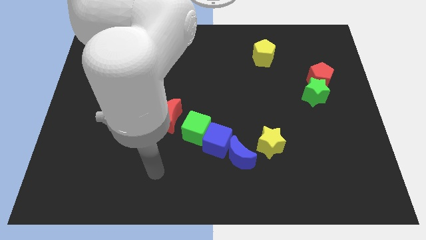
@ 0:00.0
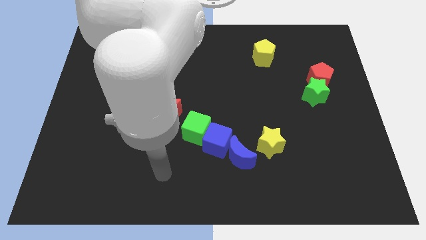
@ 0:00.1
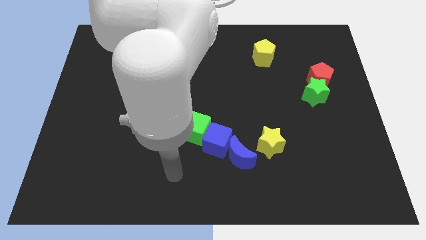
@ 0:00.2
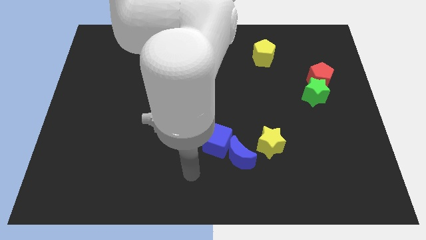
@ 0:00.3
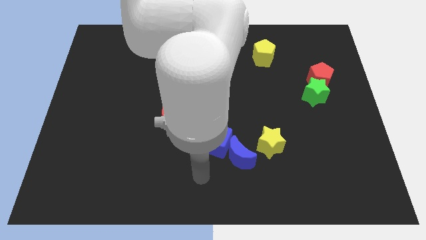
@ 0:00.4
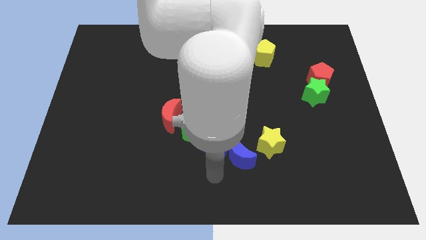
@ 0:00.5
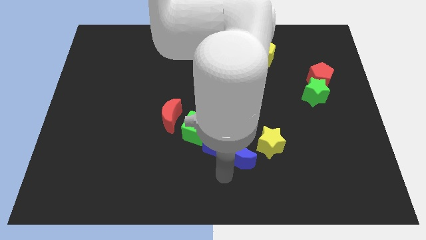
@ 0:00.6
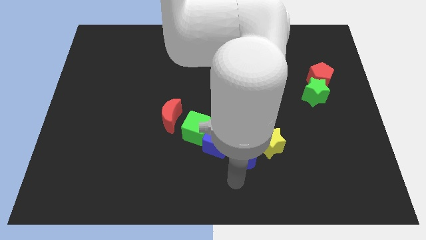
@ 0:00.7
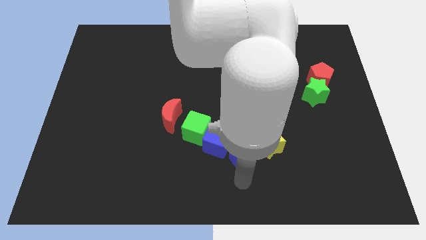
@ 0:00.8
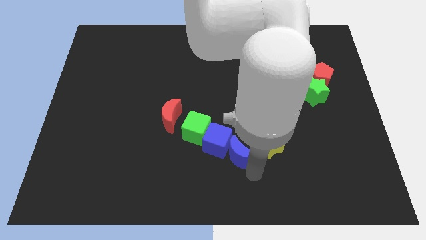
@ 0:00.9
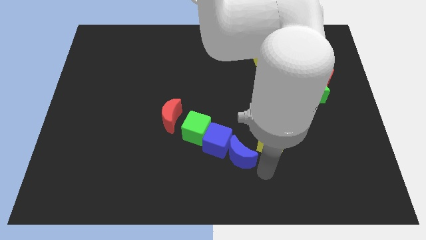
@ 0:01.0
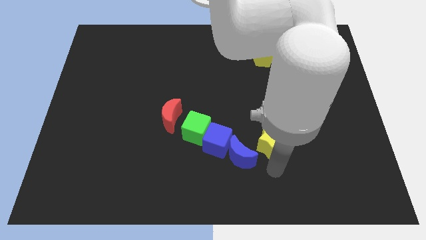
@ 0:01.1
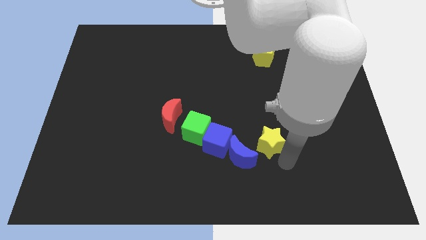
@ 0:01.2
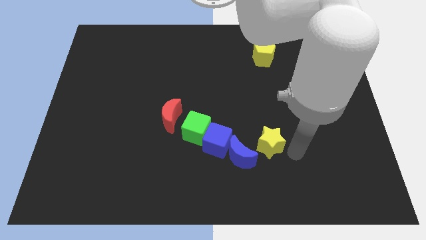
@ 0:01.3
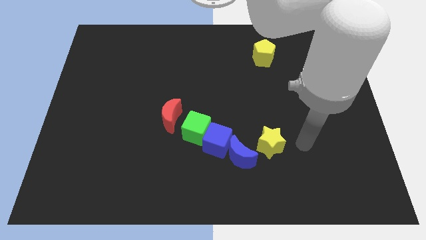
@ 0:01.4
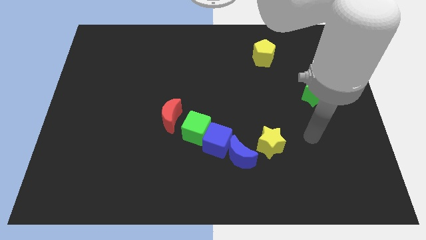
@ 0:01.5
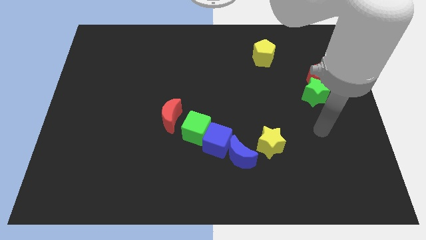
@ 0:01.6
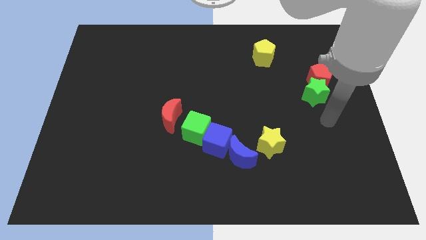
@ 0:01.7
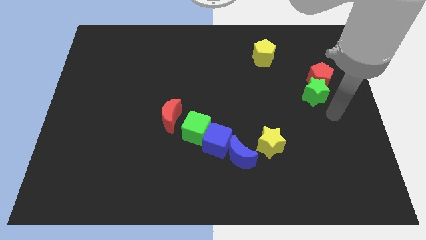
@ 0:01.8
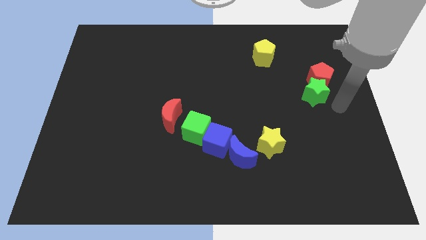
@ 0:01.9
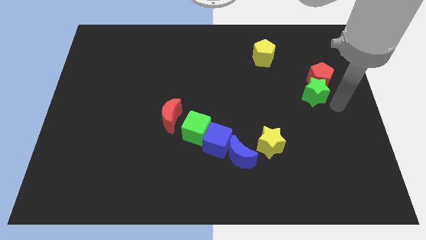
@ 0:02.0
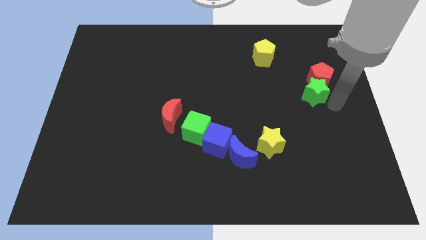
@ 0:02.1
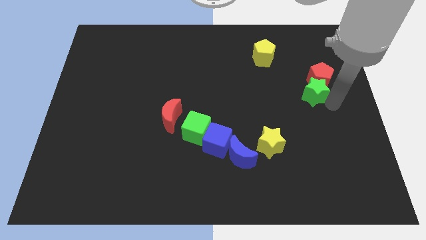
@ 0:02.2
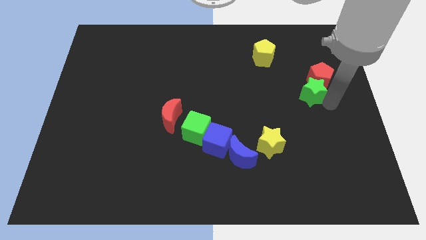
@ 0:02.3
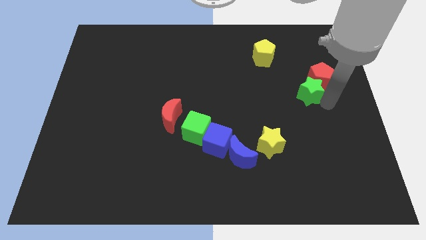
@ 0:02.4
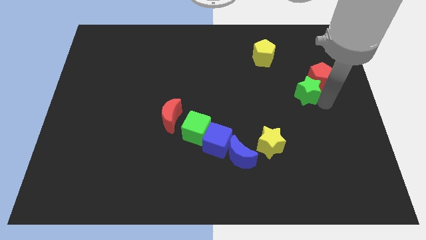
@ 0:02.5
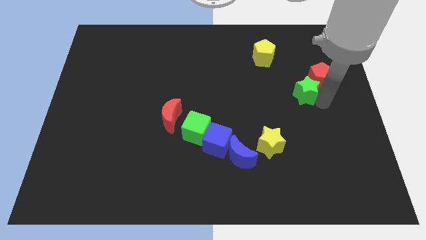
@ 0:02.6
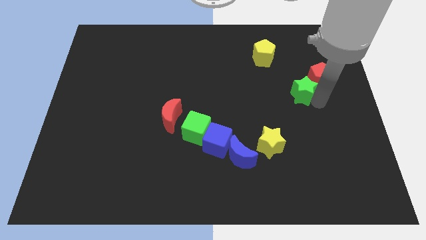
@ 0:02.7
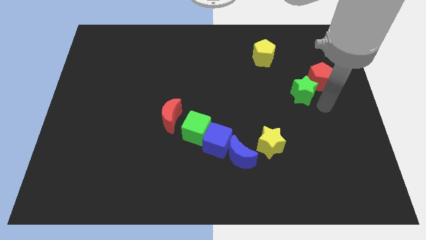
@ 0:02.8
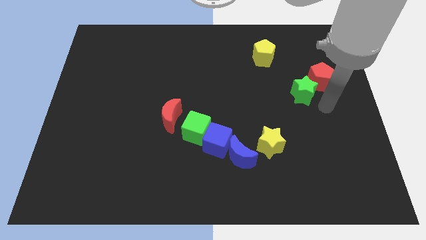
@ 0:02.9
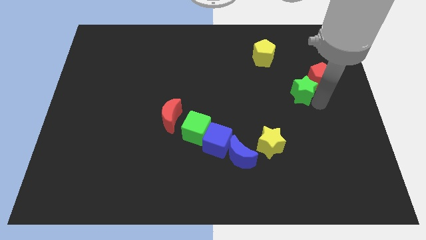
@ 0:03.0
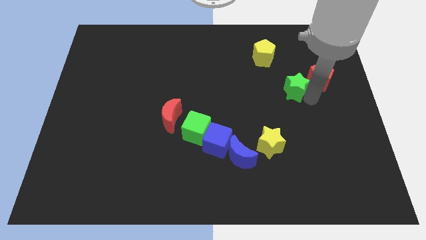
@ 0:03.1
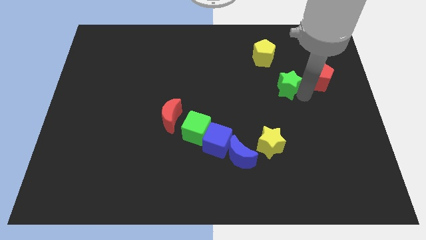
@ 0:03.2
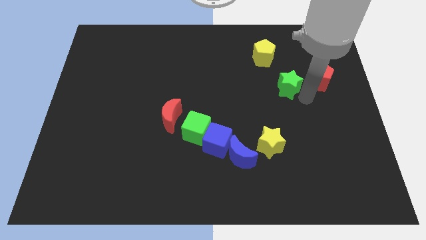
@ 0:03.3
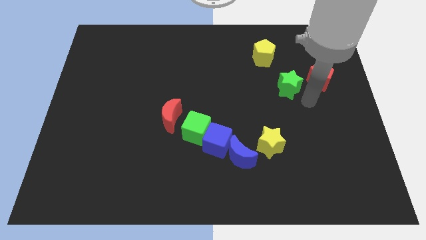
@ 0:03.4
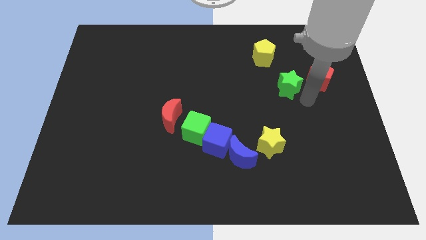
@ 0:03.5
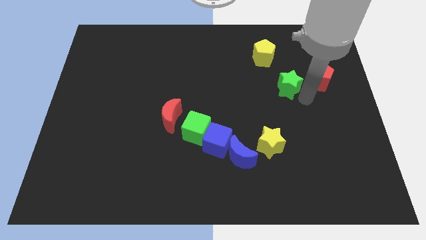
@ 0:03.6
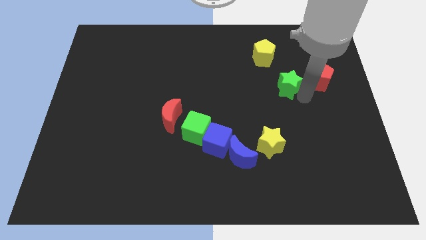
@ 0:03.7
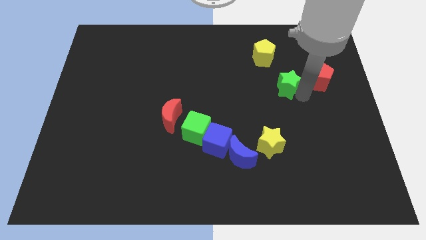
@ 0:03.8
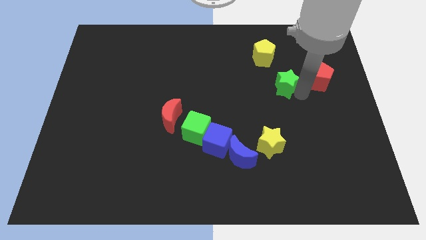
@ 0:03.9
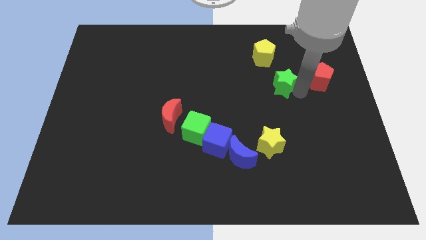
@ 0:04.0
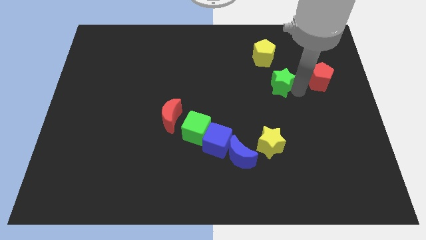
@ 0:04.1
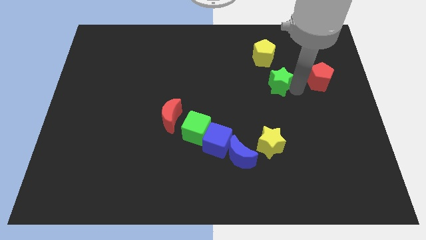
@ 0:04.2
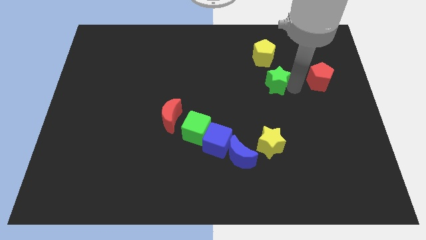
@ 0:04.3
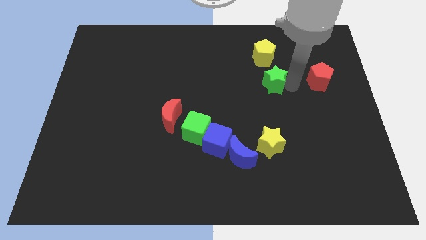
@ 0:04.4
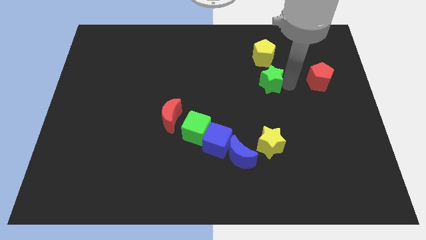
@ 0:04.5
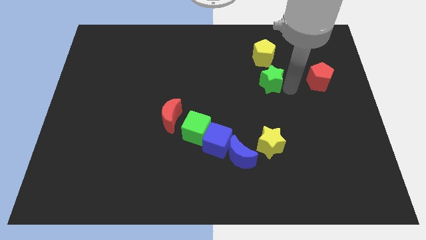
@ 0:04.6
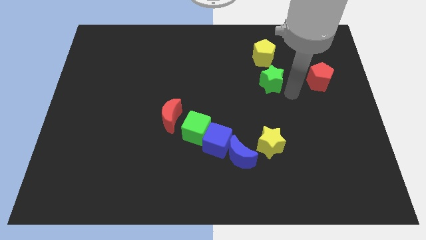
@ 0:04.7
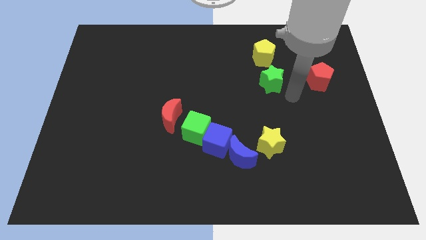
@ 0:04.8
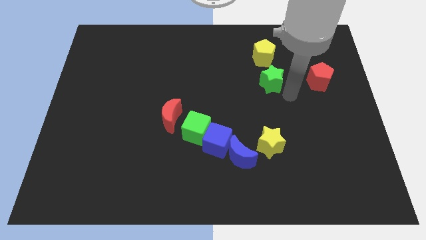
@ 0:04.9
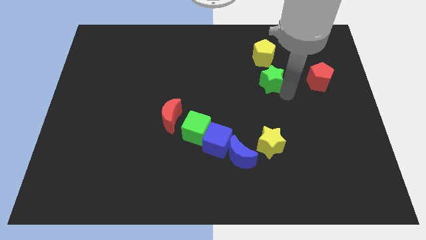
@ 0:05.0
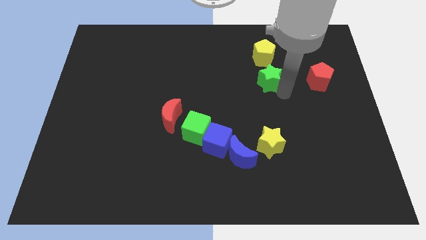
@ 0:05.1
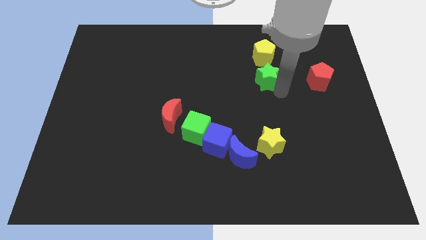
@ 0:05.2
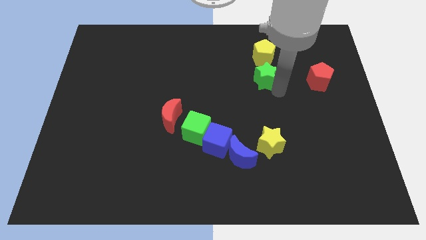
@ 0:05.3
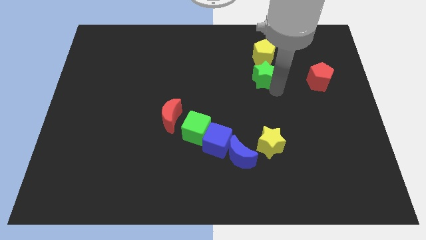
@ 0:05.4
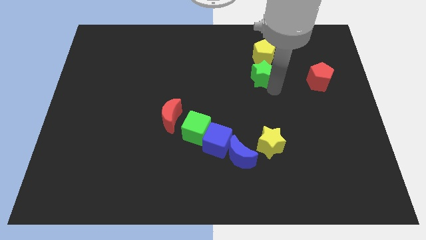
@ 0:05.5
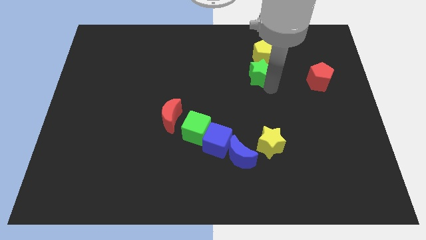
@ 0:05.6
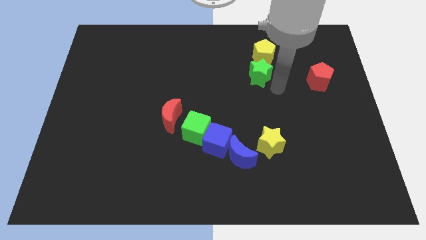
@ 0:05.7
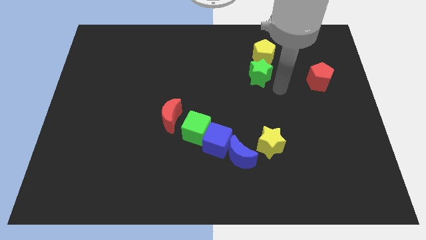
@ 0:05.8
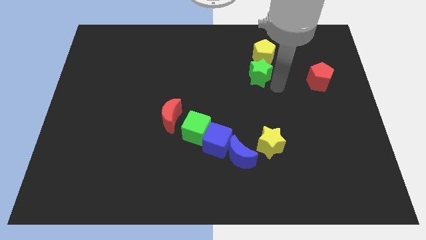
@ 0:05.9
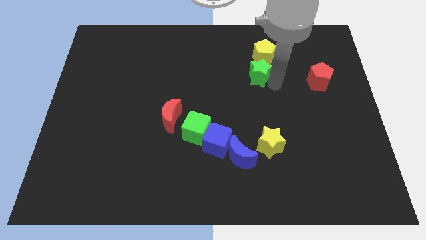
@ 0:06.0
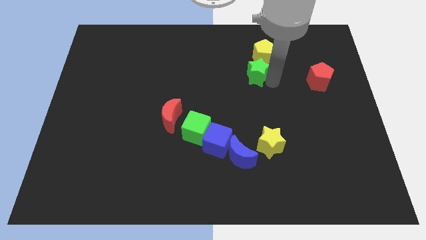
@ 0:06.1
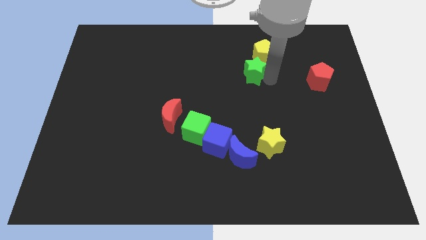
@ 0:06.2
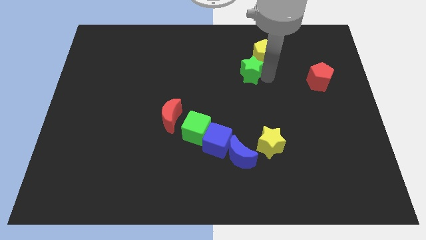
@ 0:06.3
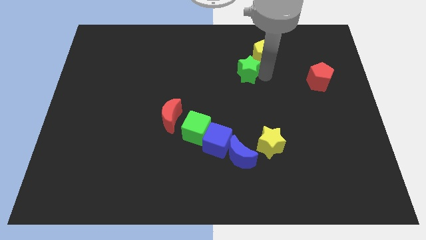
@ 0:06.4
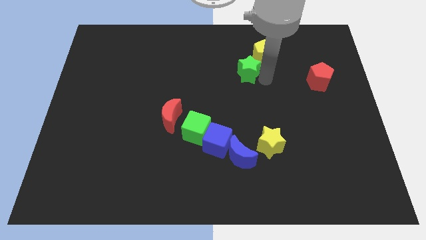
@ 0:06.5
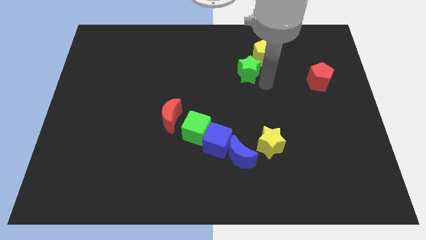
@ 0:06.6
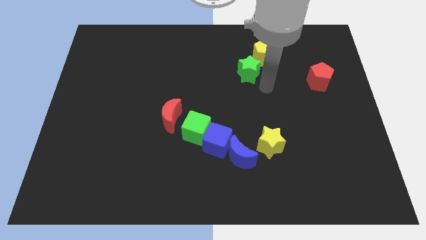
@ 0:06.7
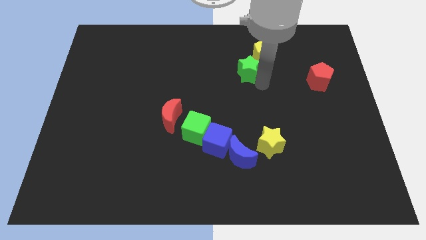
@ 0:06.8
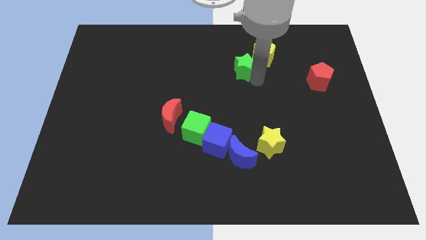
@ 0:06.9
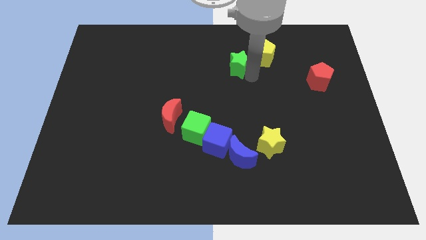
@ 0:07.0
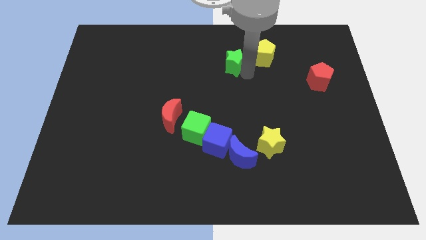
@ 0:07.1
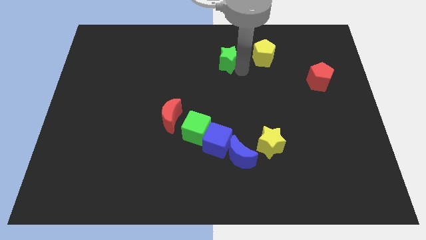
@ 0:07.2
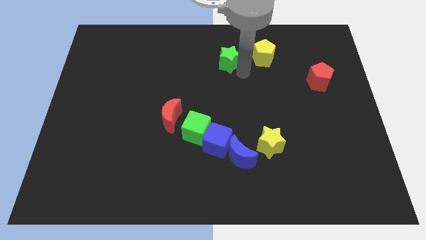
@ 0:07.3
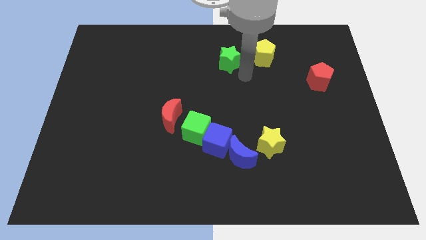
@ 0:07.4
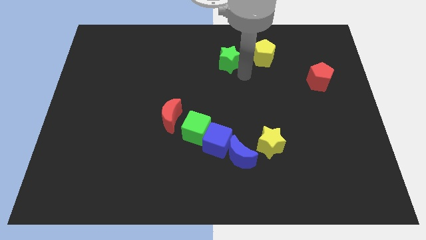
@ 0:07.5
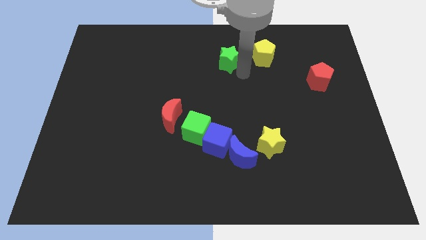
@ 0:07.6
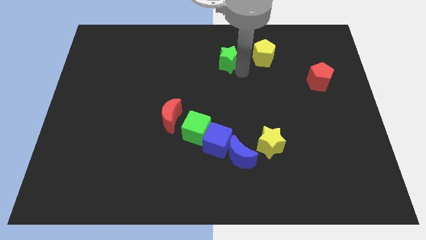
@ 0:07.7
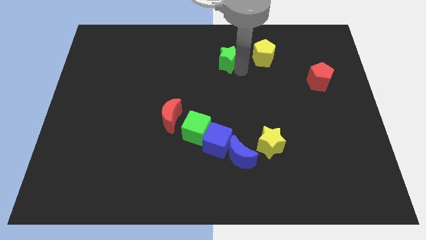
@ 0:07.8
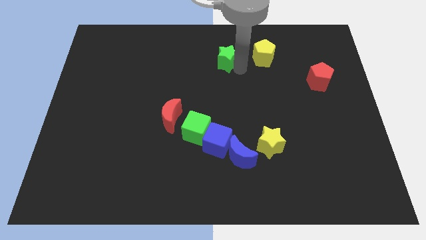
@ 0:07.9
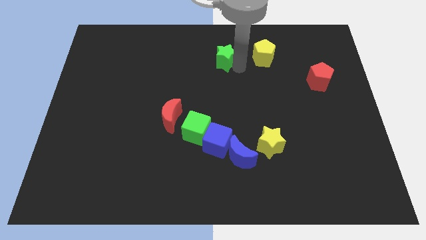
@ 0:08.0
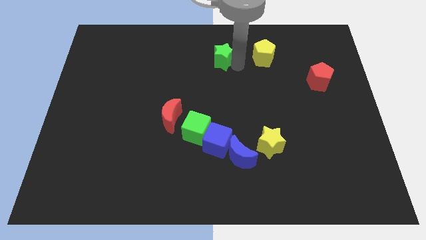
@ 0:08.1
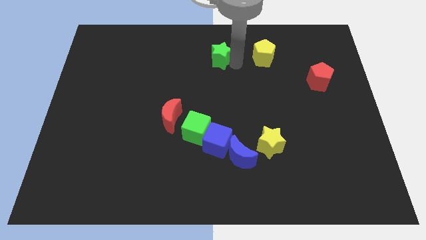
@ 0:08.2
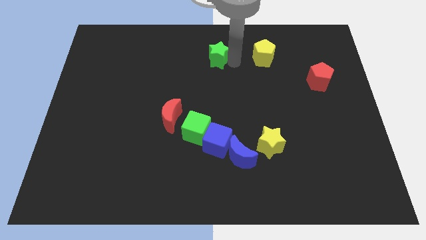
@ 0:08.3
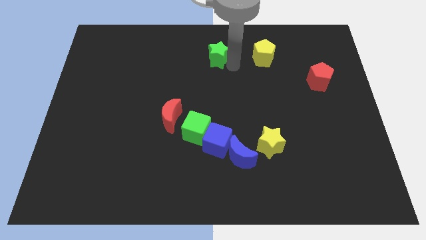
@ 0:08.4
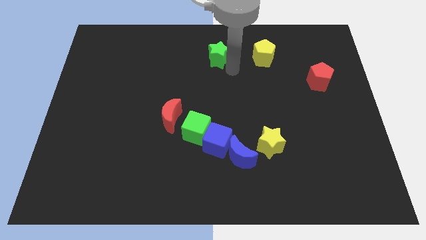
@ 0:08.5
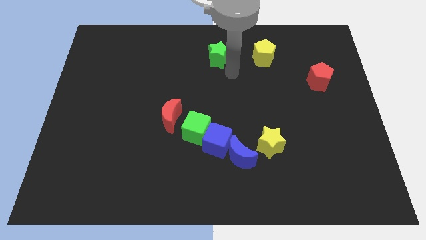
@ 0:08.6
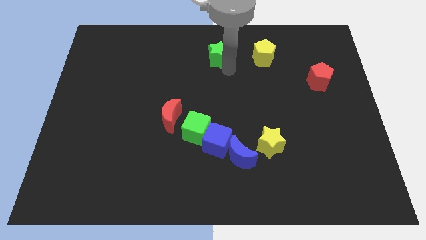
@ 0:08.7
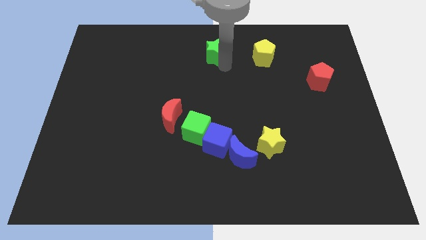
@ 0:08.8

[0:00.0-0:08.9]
move the green star to the top side
